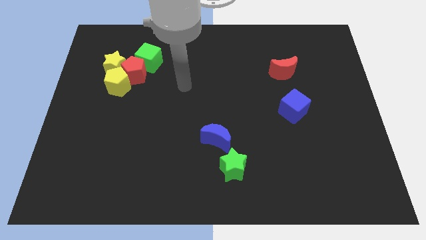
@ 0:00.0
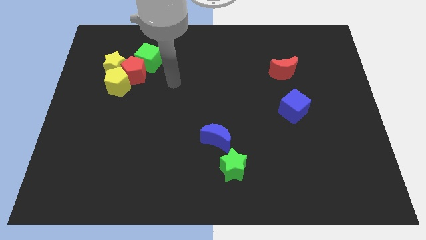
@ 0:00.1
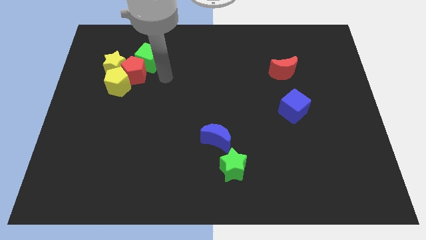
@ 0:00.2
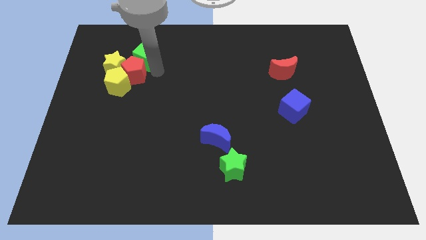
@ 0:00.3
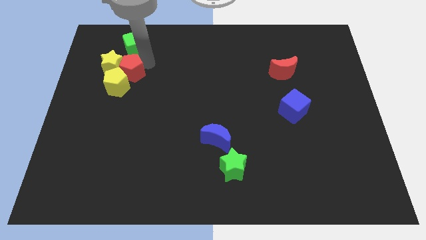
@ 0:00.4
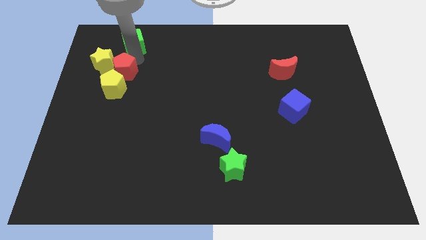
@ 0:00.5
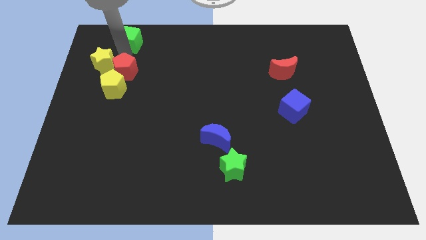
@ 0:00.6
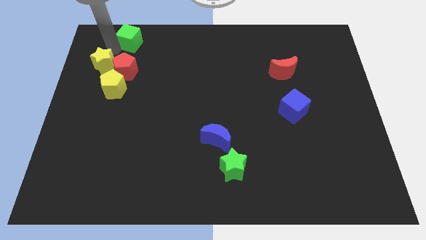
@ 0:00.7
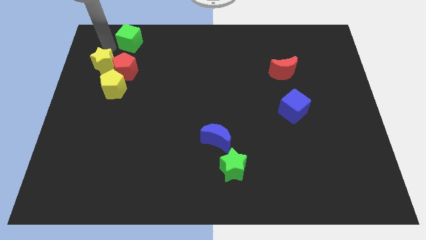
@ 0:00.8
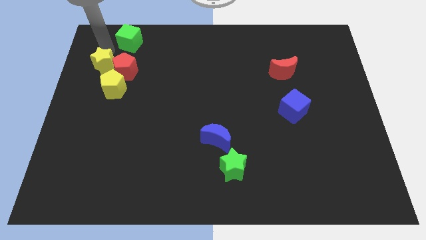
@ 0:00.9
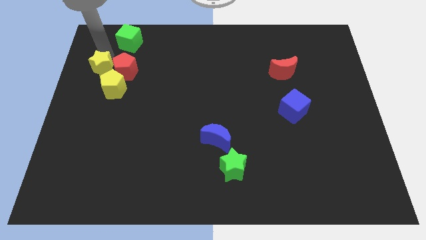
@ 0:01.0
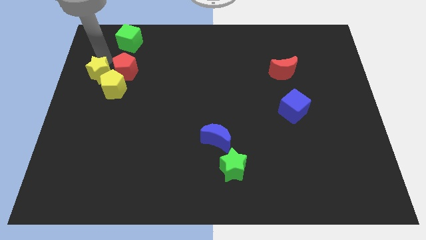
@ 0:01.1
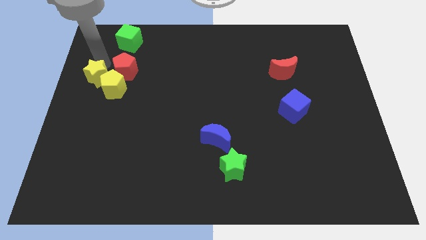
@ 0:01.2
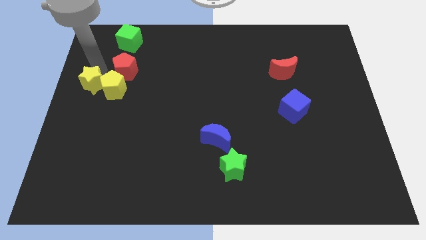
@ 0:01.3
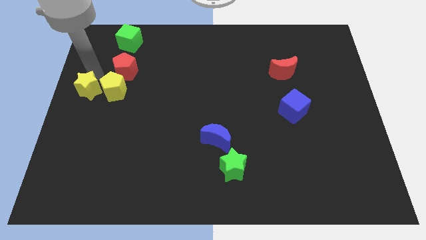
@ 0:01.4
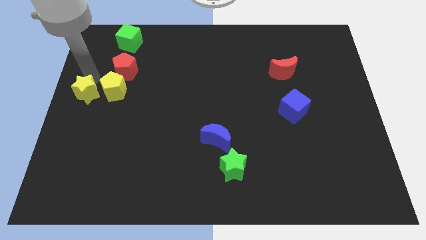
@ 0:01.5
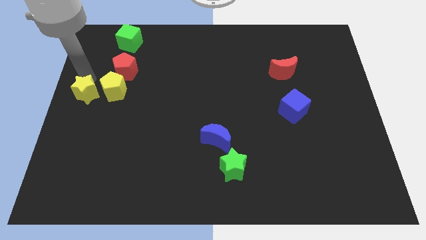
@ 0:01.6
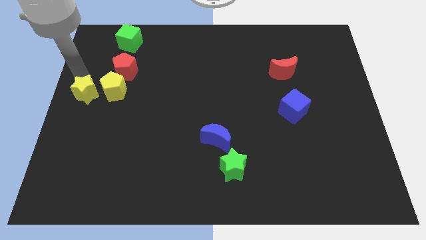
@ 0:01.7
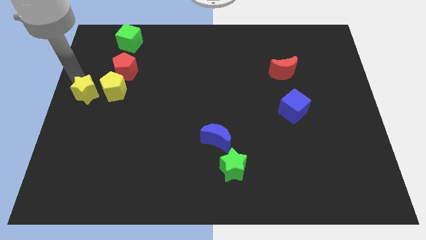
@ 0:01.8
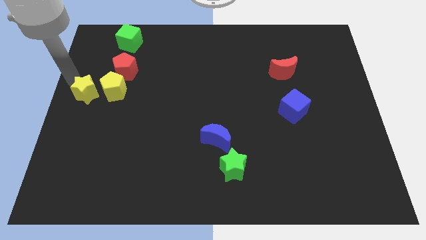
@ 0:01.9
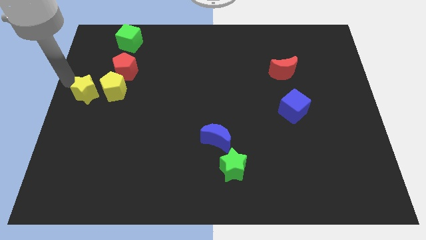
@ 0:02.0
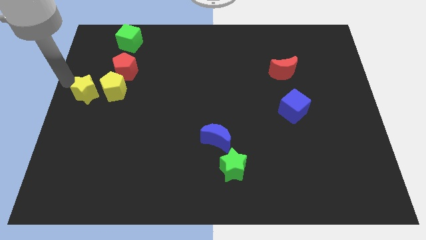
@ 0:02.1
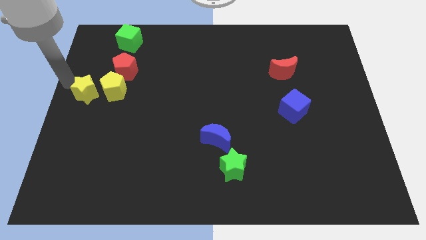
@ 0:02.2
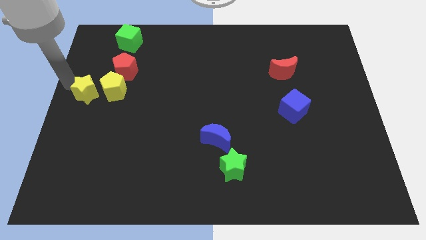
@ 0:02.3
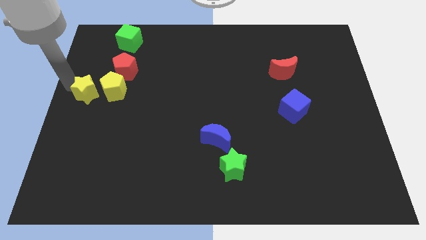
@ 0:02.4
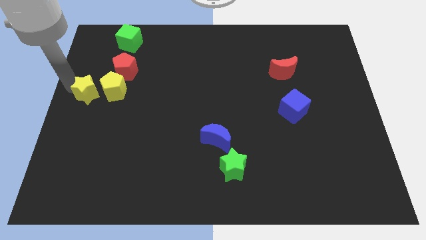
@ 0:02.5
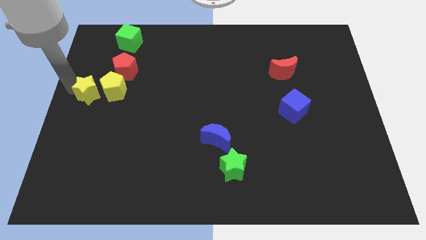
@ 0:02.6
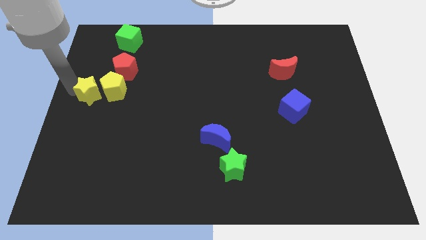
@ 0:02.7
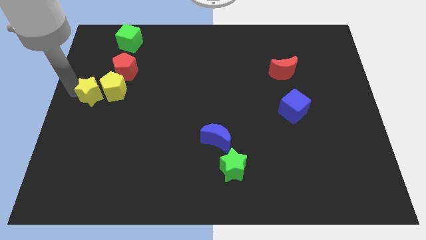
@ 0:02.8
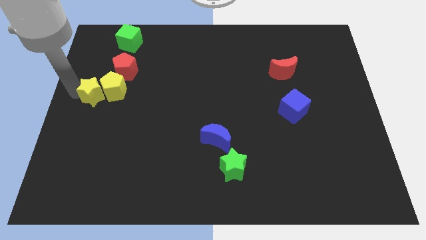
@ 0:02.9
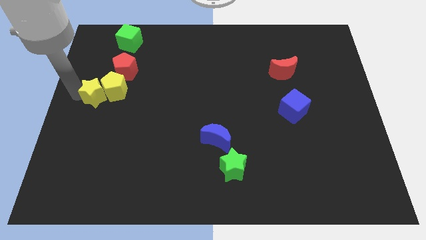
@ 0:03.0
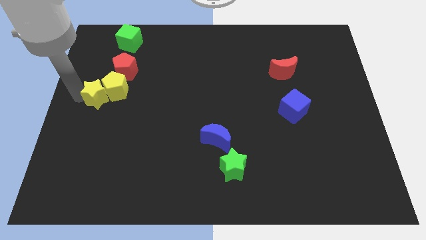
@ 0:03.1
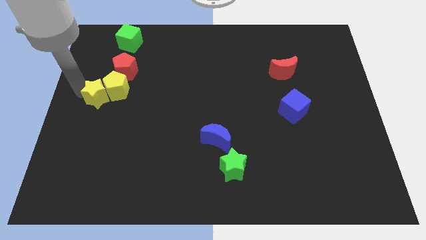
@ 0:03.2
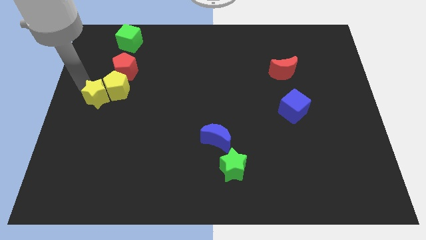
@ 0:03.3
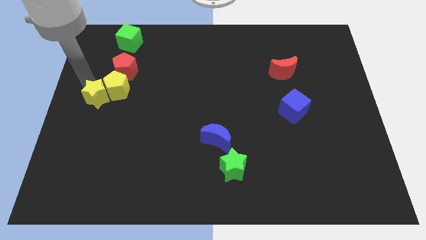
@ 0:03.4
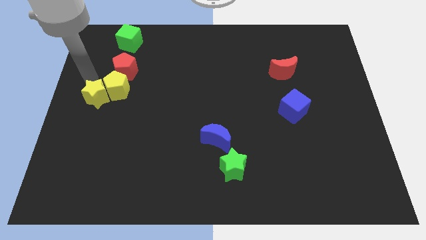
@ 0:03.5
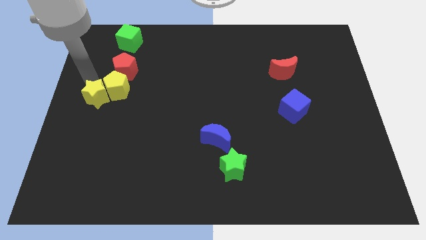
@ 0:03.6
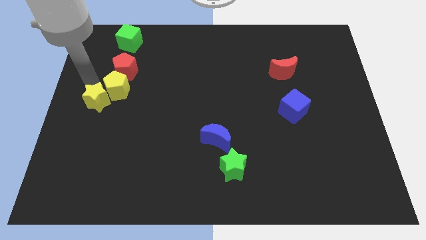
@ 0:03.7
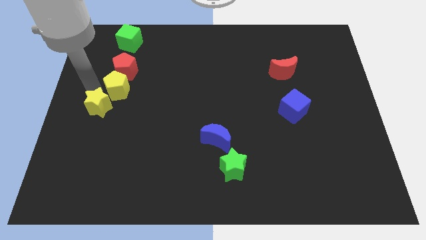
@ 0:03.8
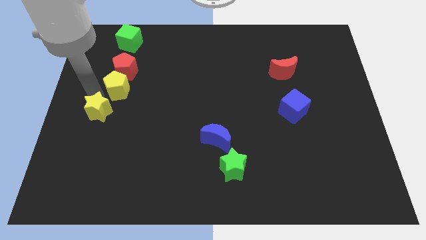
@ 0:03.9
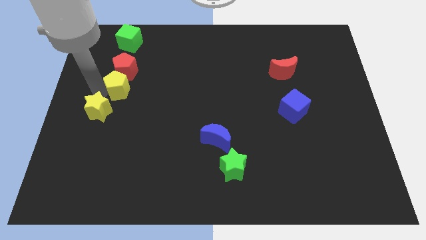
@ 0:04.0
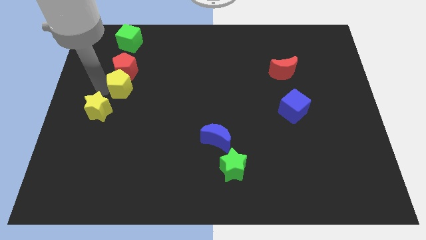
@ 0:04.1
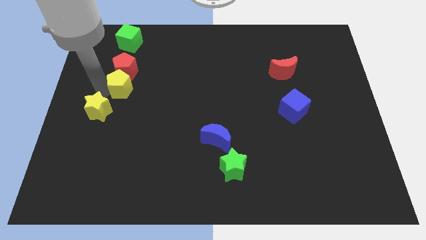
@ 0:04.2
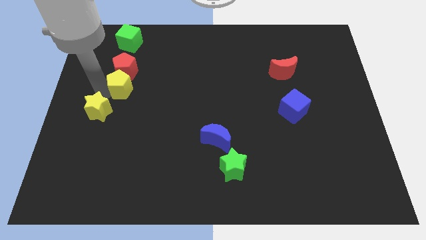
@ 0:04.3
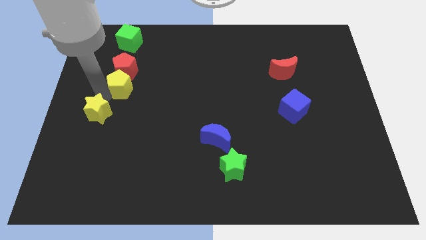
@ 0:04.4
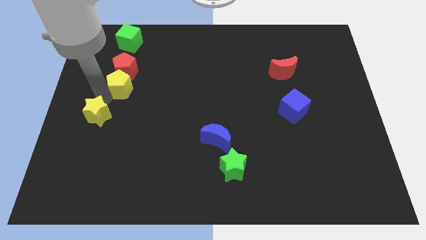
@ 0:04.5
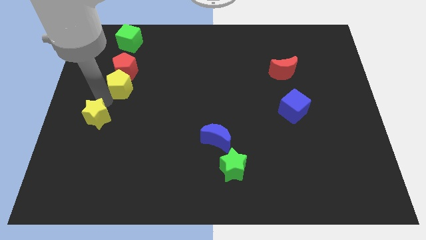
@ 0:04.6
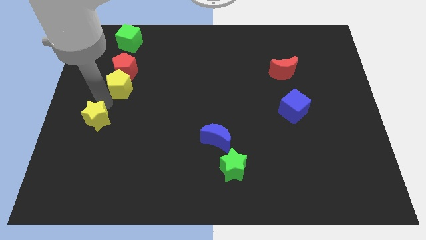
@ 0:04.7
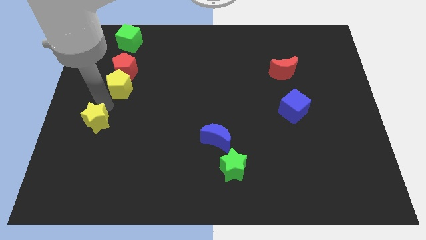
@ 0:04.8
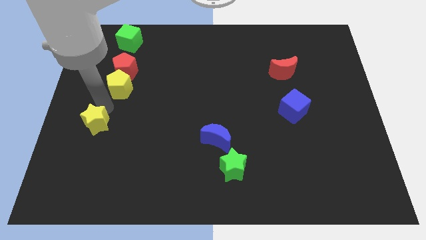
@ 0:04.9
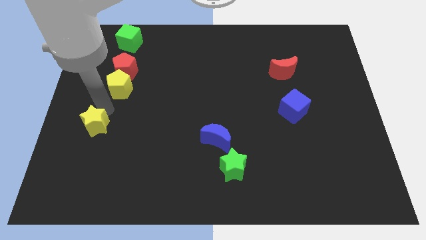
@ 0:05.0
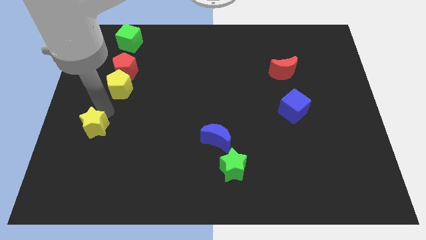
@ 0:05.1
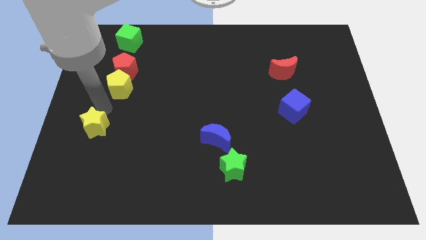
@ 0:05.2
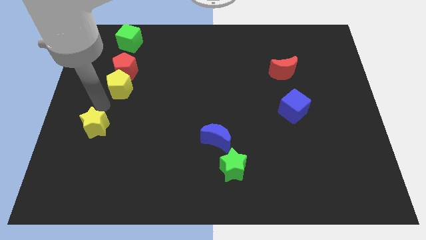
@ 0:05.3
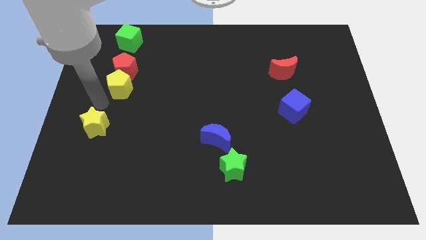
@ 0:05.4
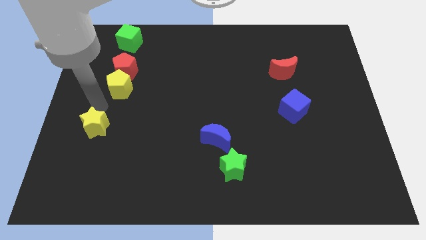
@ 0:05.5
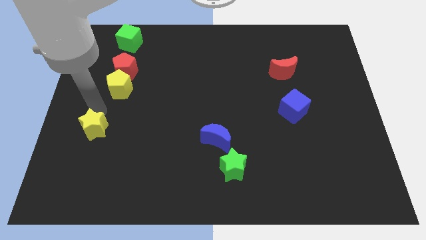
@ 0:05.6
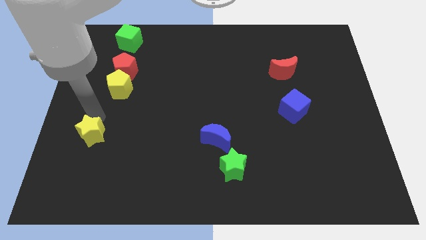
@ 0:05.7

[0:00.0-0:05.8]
slide the yellow star down

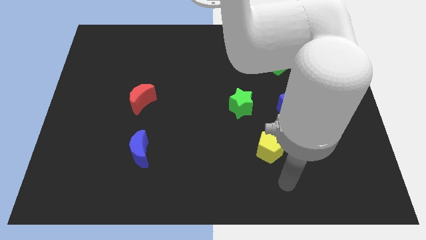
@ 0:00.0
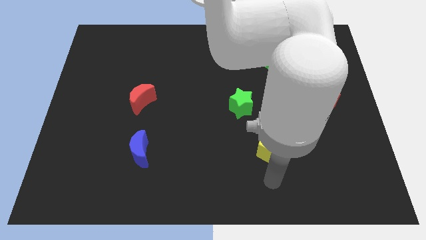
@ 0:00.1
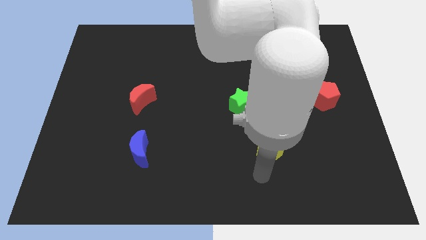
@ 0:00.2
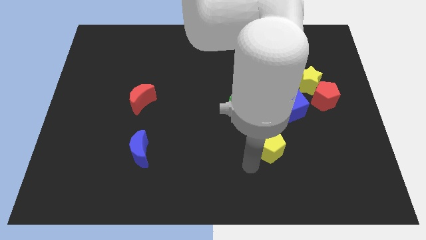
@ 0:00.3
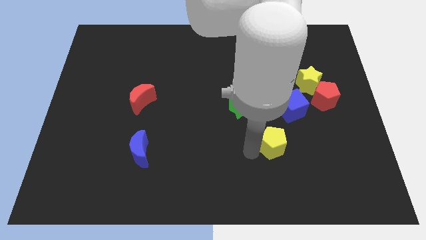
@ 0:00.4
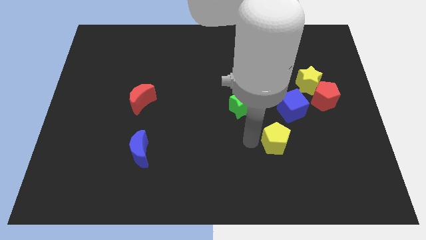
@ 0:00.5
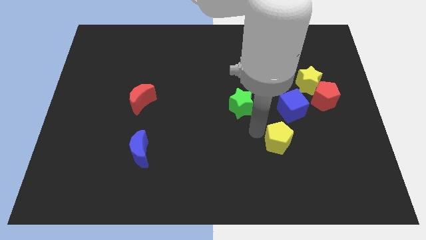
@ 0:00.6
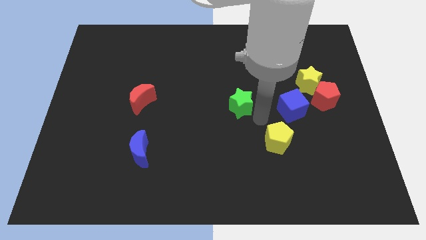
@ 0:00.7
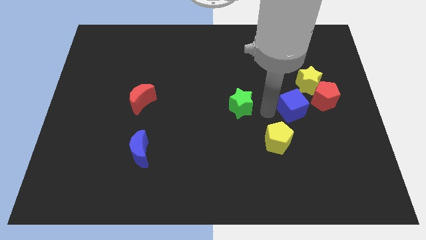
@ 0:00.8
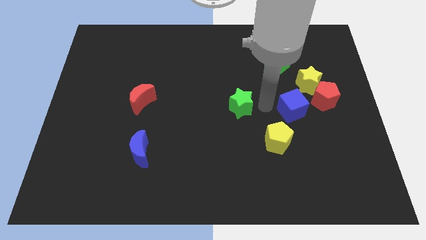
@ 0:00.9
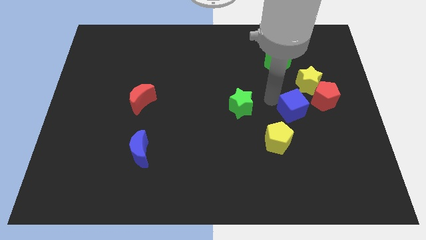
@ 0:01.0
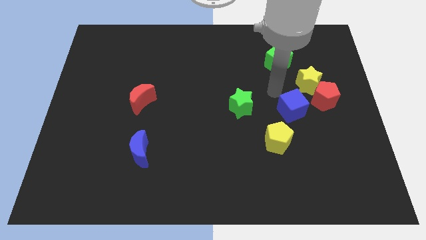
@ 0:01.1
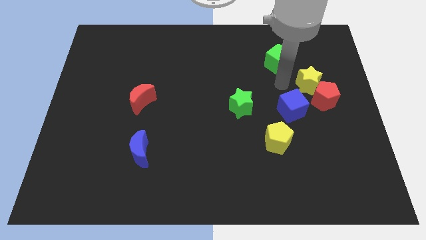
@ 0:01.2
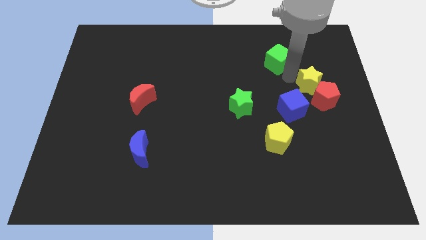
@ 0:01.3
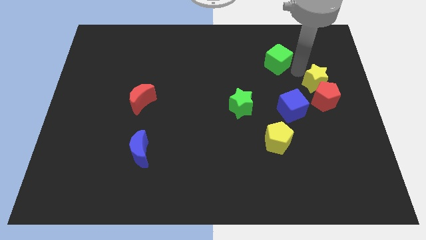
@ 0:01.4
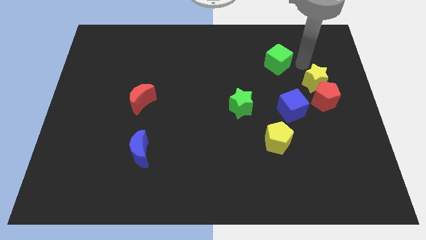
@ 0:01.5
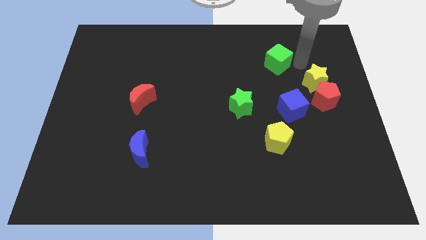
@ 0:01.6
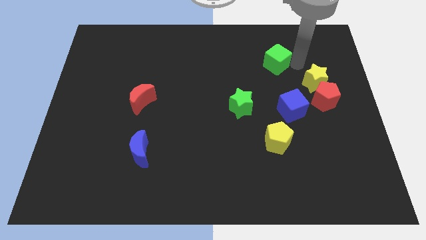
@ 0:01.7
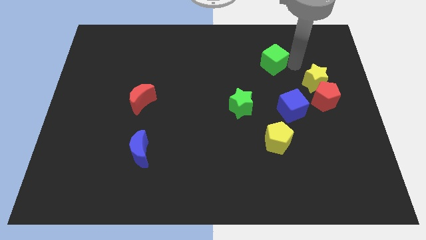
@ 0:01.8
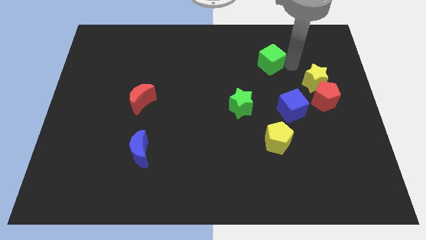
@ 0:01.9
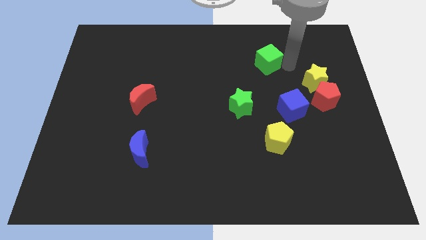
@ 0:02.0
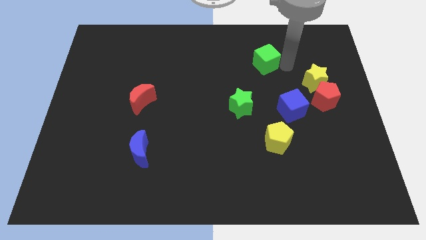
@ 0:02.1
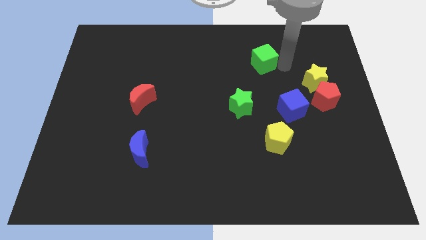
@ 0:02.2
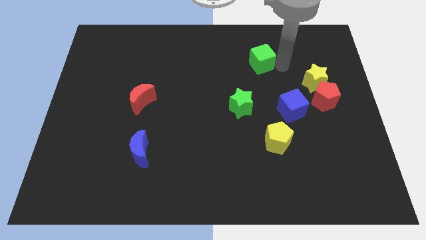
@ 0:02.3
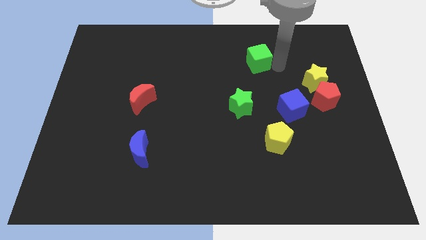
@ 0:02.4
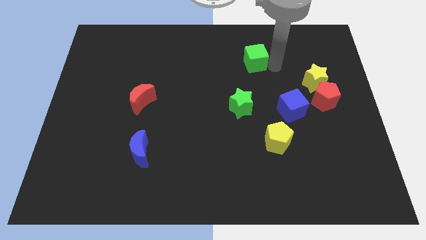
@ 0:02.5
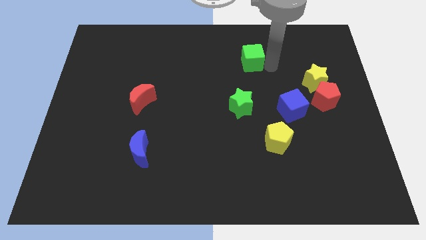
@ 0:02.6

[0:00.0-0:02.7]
slightly push the green cube to the left
